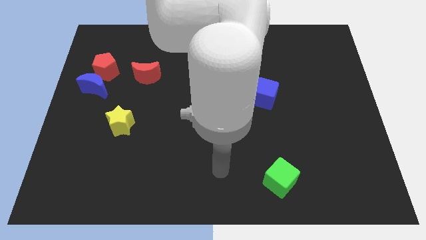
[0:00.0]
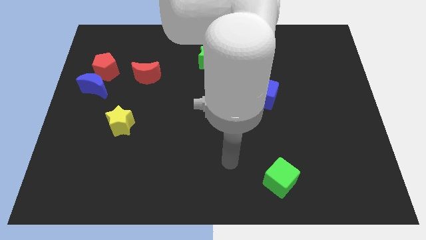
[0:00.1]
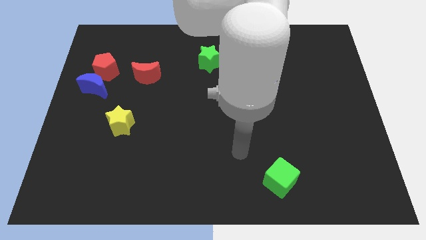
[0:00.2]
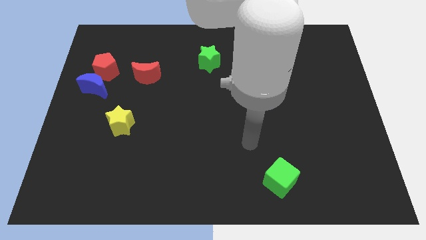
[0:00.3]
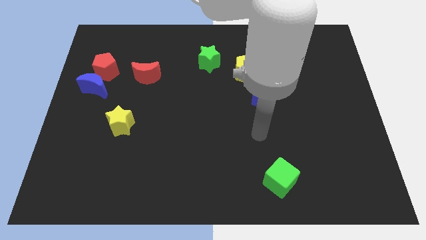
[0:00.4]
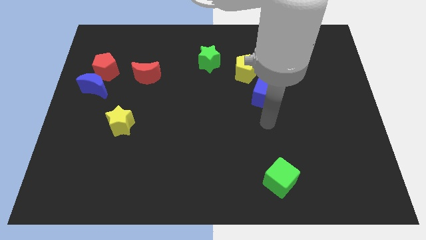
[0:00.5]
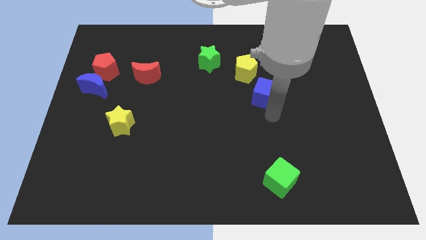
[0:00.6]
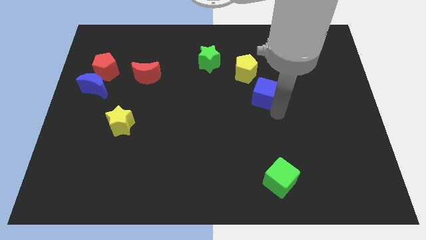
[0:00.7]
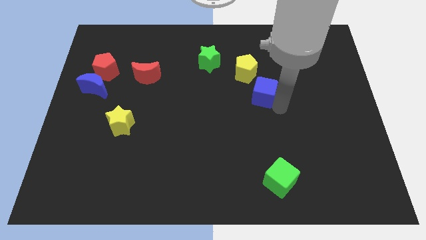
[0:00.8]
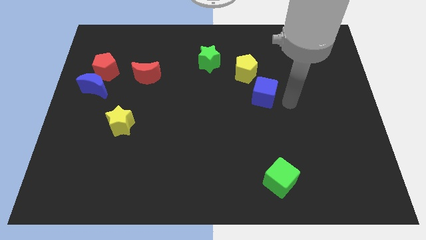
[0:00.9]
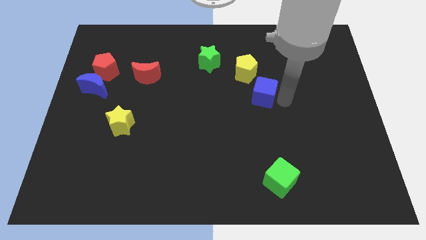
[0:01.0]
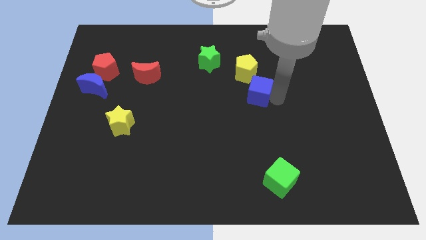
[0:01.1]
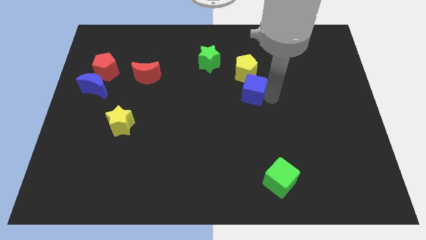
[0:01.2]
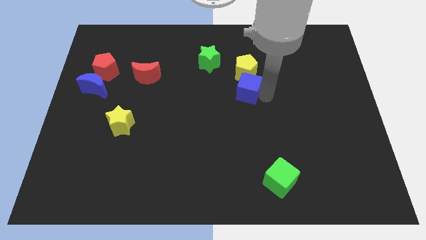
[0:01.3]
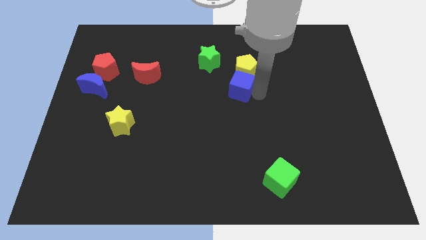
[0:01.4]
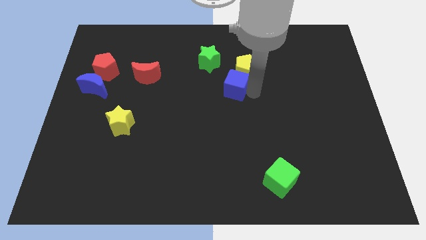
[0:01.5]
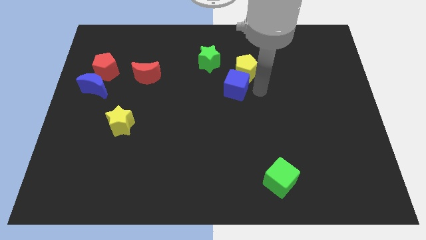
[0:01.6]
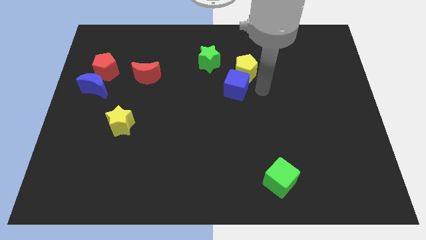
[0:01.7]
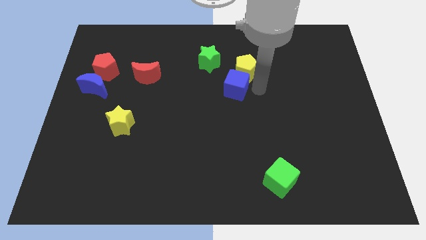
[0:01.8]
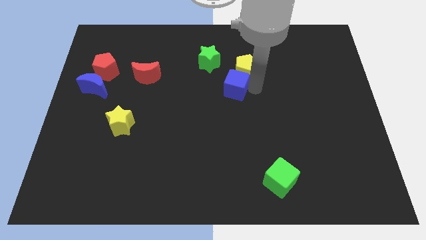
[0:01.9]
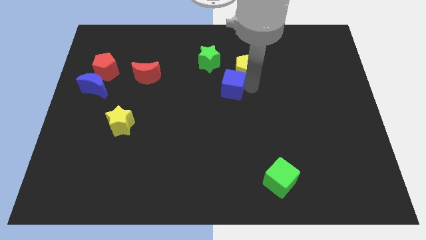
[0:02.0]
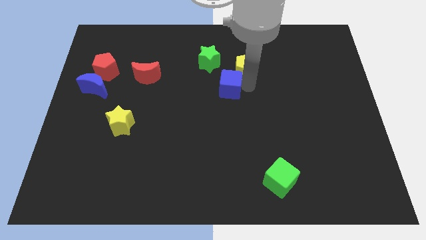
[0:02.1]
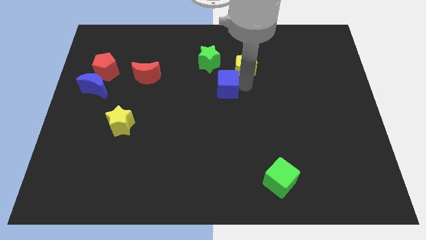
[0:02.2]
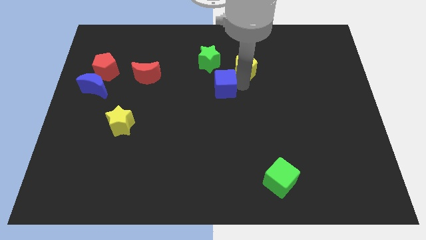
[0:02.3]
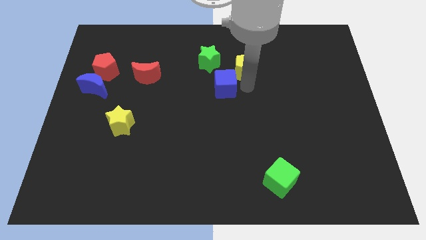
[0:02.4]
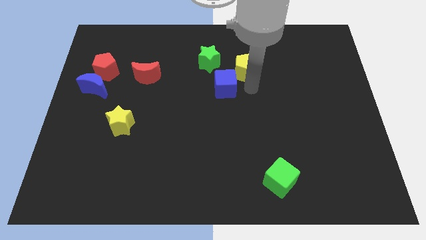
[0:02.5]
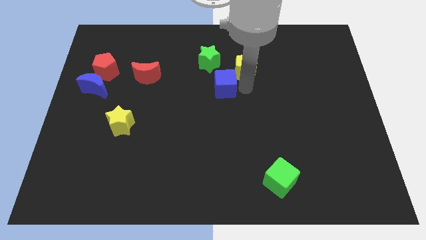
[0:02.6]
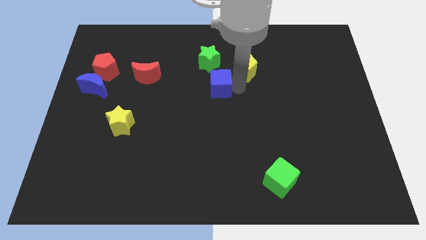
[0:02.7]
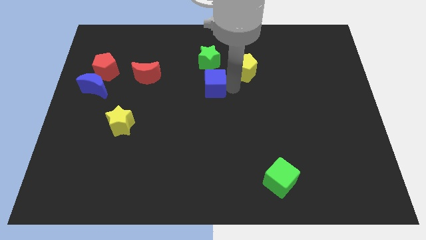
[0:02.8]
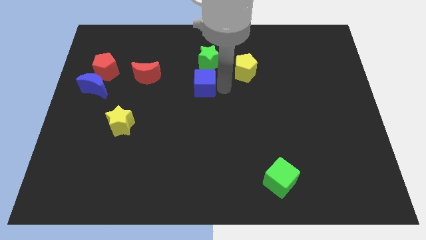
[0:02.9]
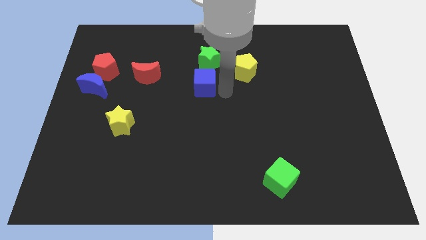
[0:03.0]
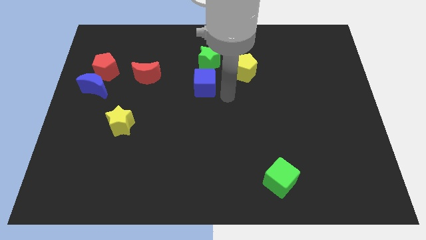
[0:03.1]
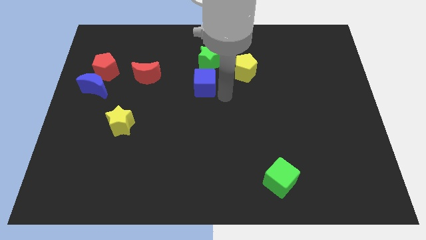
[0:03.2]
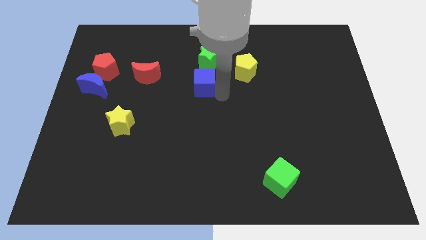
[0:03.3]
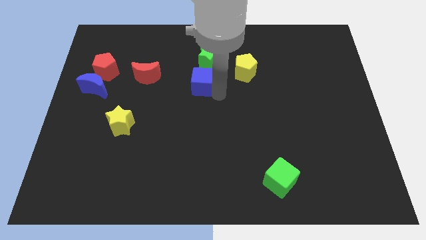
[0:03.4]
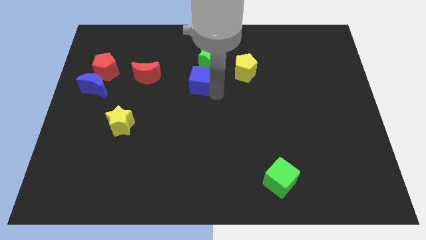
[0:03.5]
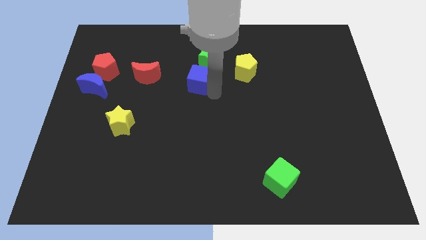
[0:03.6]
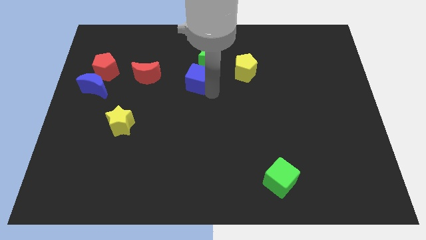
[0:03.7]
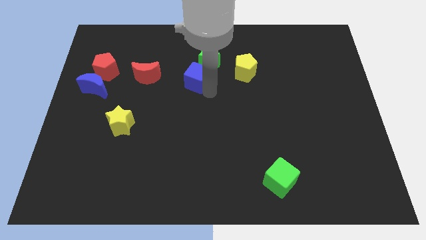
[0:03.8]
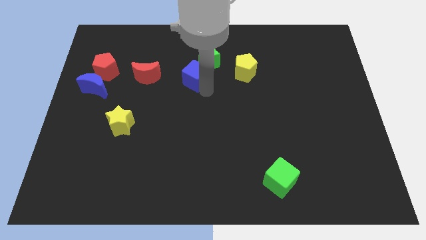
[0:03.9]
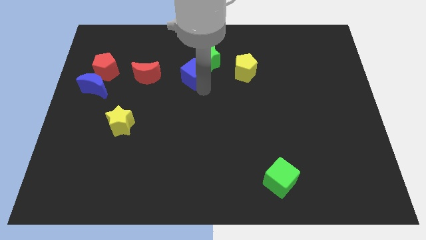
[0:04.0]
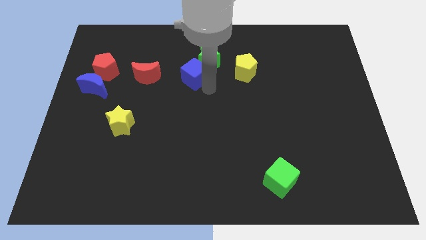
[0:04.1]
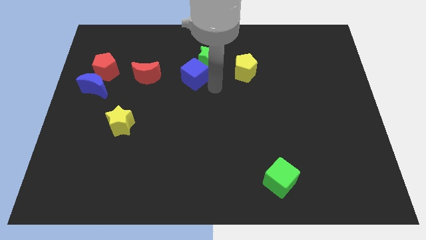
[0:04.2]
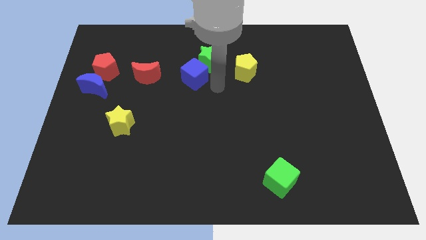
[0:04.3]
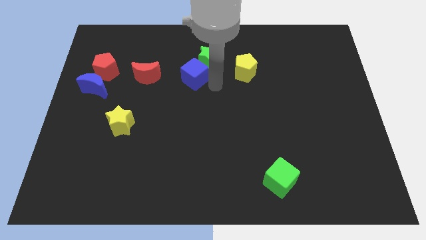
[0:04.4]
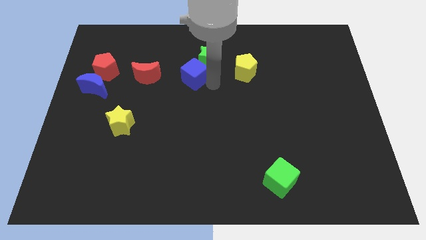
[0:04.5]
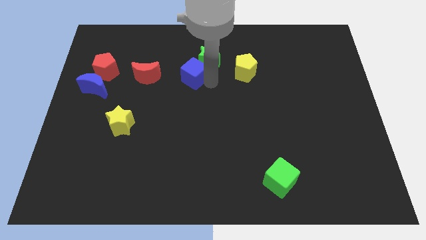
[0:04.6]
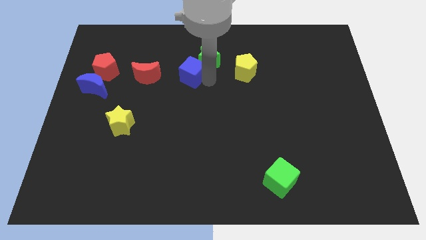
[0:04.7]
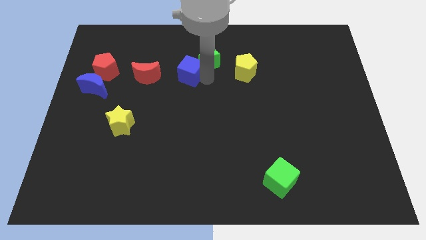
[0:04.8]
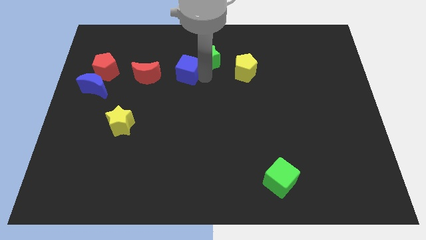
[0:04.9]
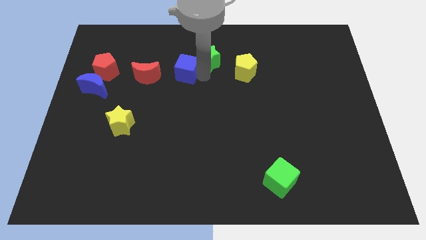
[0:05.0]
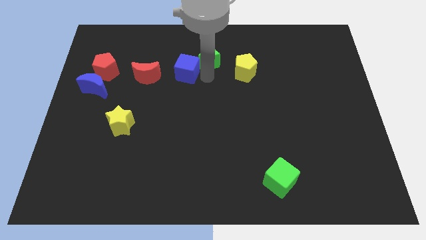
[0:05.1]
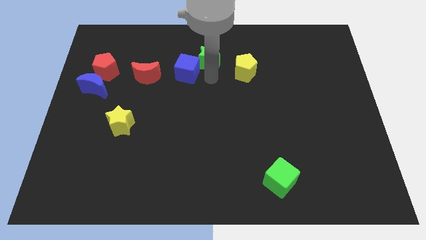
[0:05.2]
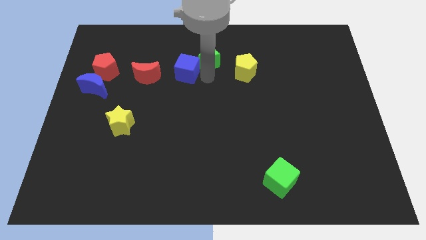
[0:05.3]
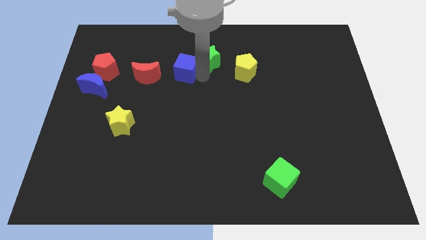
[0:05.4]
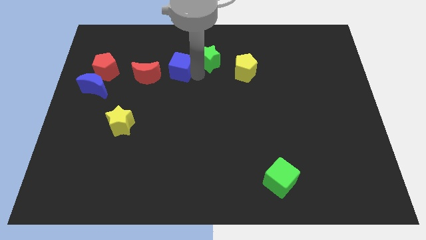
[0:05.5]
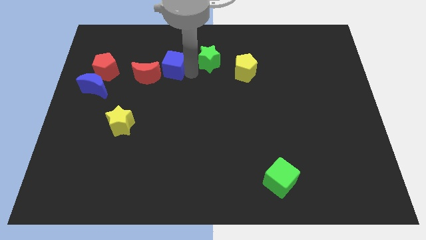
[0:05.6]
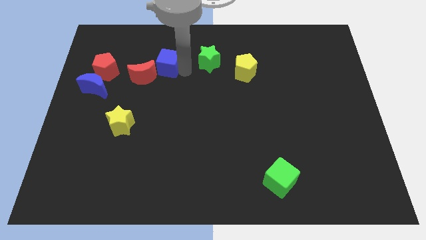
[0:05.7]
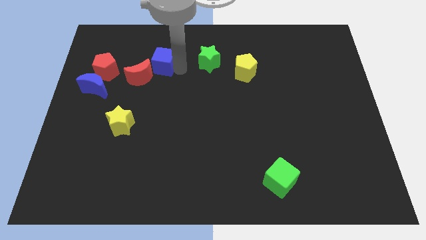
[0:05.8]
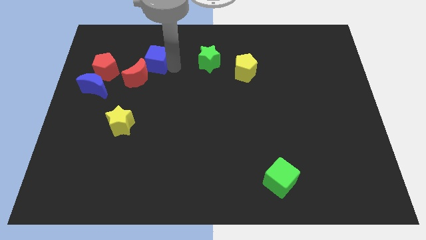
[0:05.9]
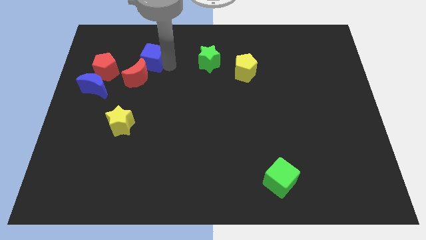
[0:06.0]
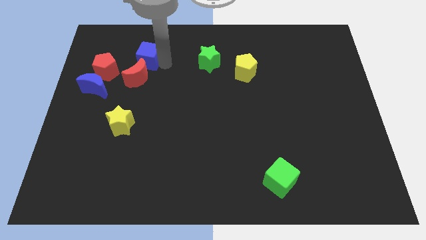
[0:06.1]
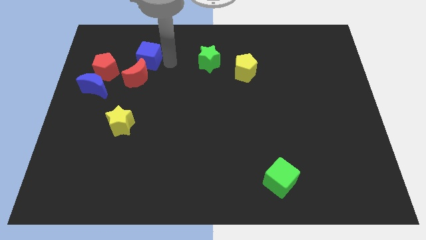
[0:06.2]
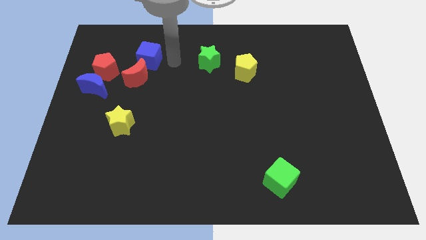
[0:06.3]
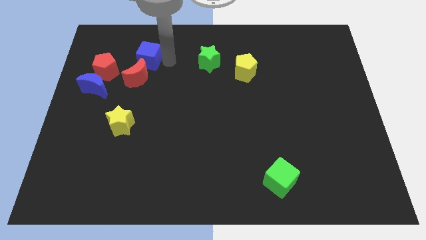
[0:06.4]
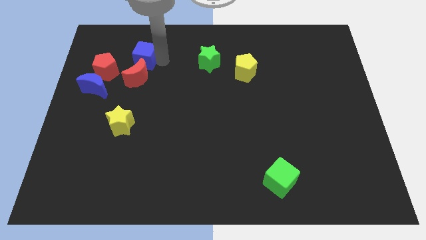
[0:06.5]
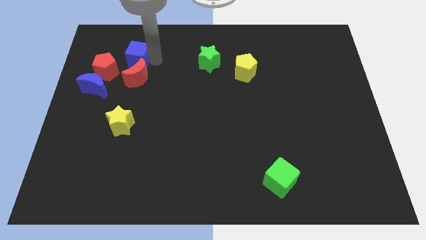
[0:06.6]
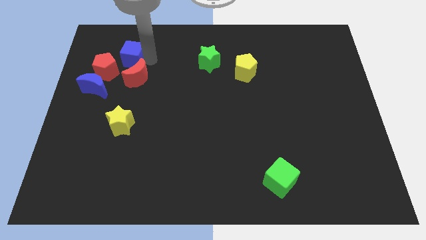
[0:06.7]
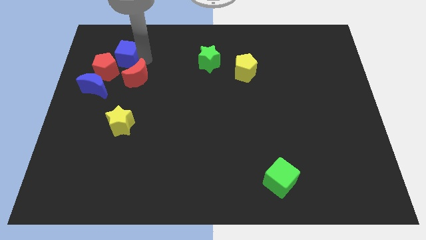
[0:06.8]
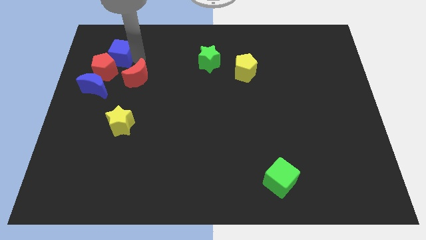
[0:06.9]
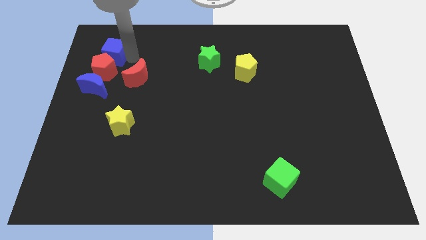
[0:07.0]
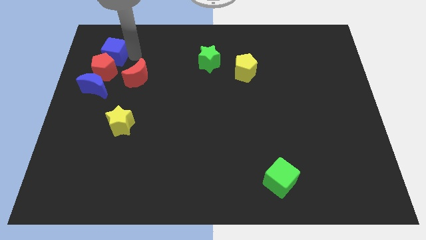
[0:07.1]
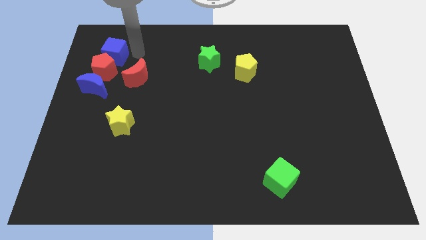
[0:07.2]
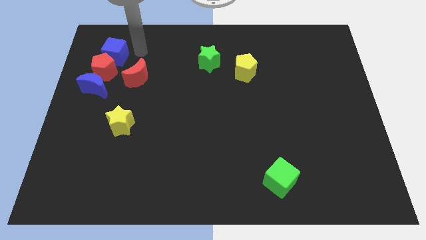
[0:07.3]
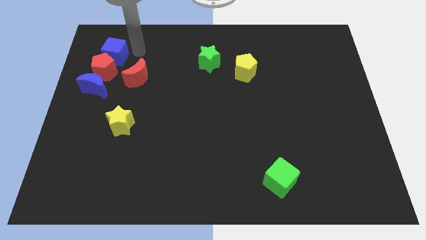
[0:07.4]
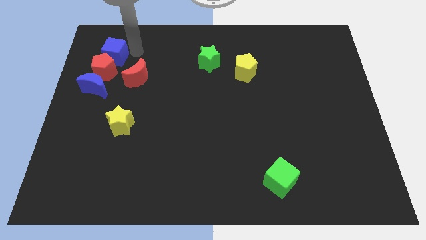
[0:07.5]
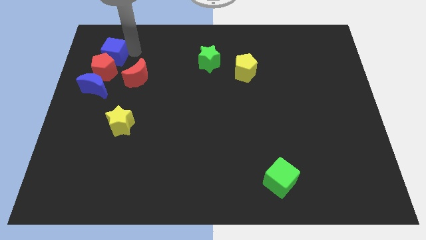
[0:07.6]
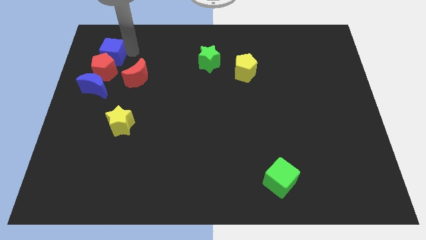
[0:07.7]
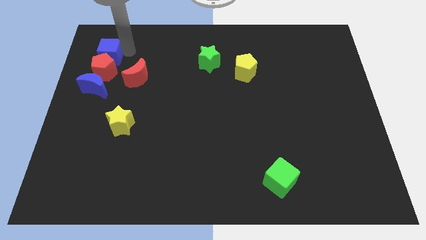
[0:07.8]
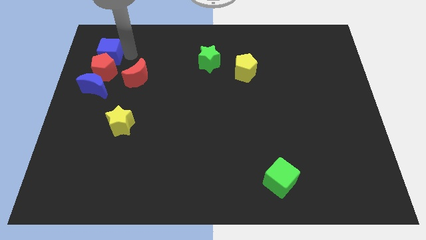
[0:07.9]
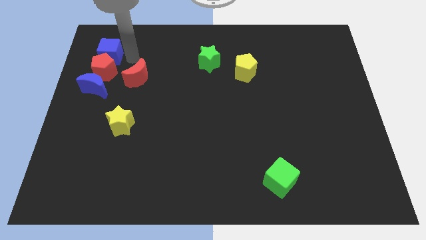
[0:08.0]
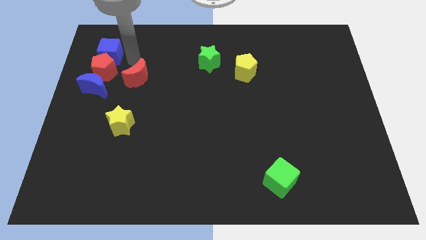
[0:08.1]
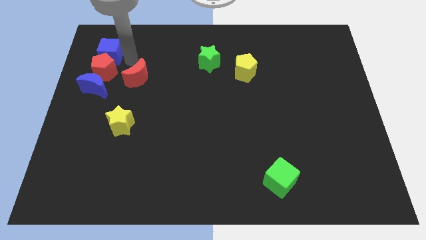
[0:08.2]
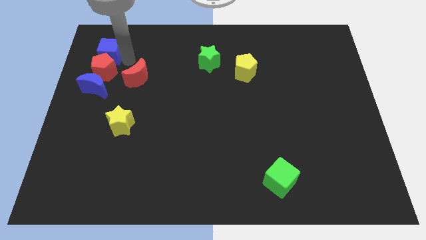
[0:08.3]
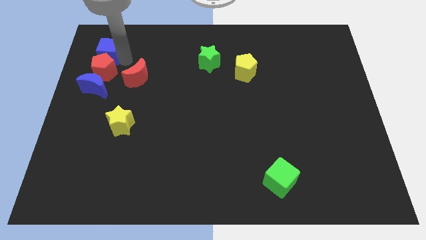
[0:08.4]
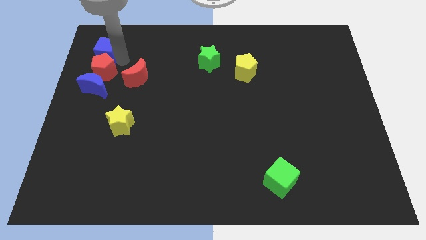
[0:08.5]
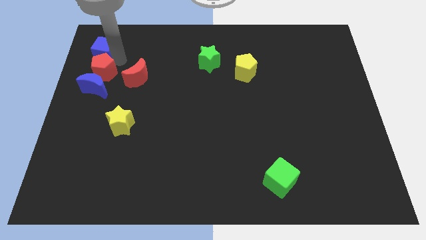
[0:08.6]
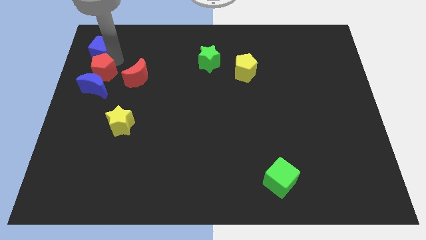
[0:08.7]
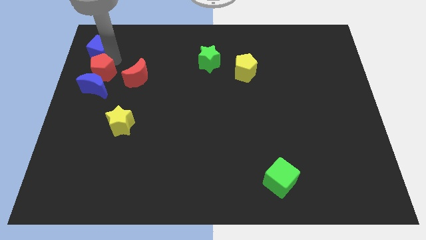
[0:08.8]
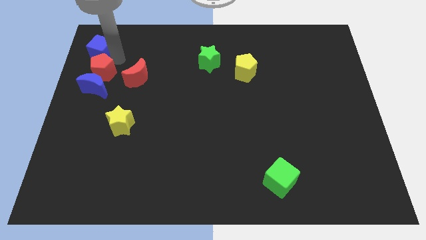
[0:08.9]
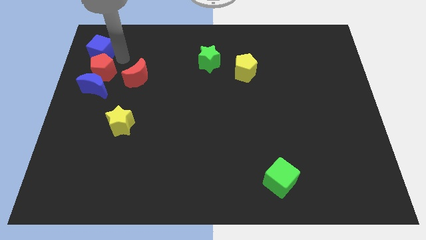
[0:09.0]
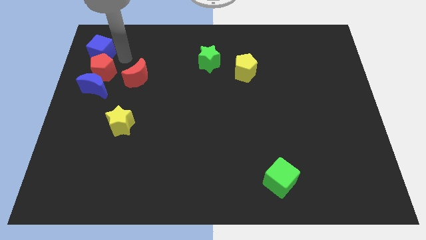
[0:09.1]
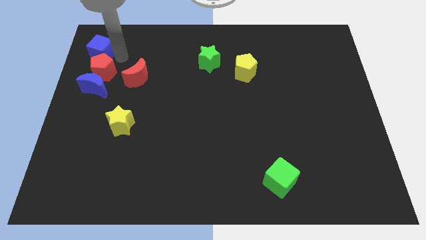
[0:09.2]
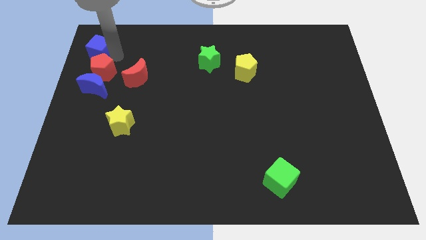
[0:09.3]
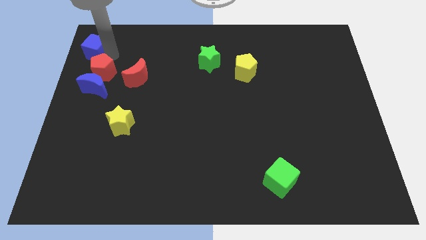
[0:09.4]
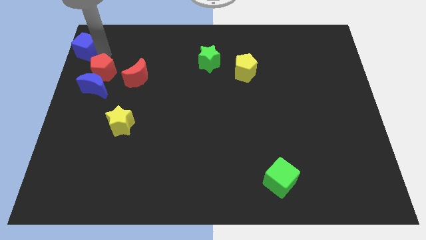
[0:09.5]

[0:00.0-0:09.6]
put the blue cube to the top left
